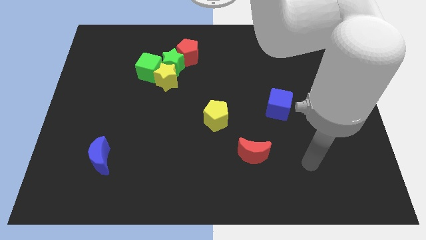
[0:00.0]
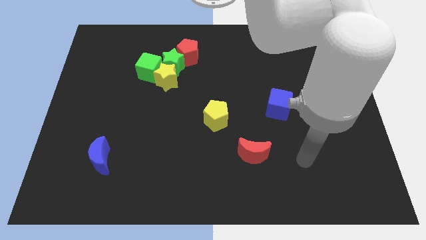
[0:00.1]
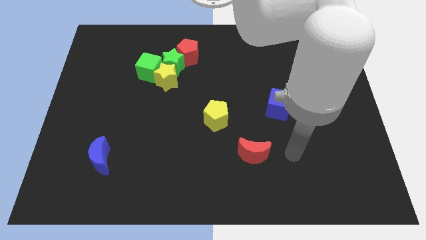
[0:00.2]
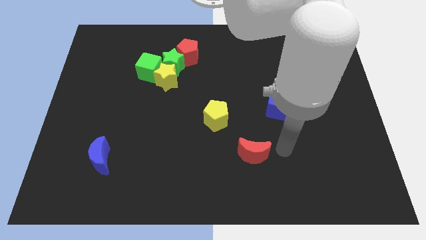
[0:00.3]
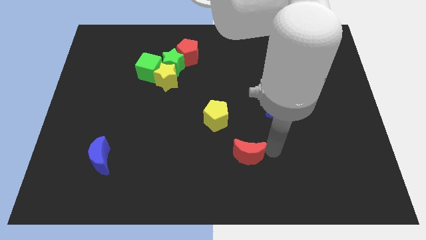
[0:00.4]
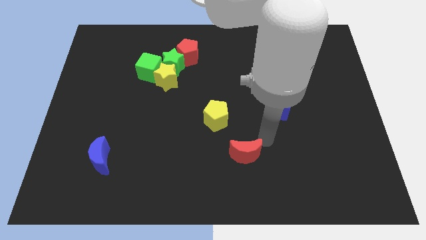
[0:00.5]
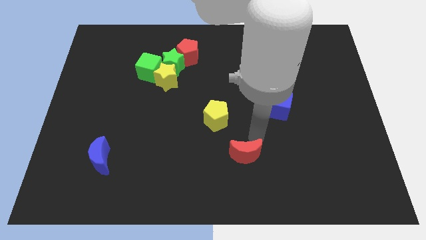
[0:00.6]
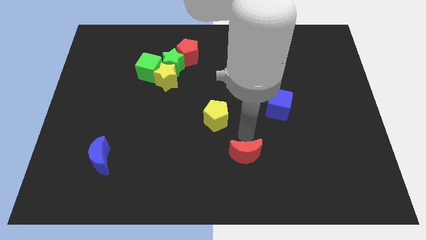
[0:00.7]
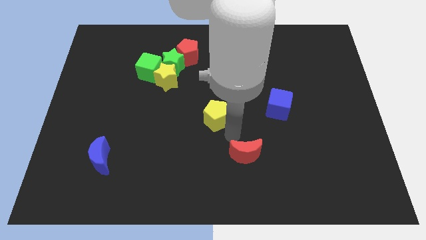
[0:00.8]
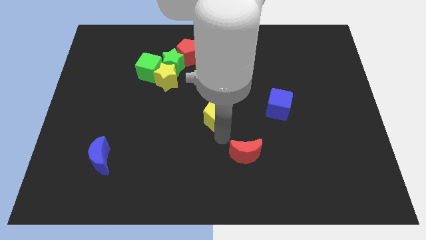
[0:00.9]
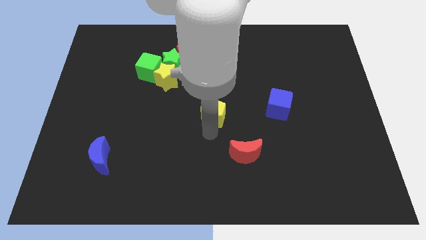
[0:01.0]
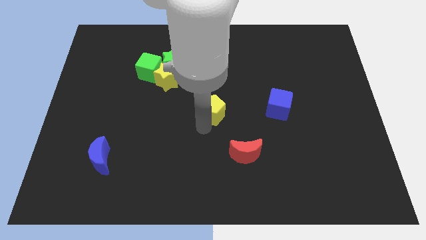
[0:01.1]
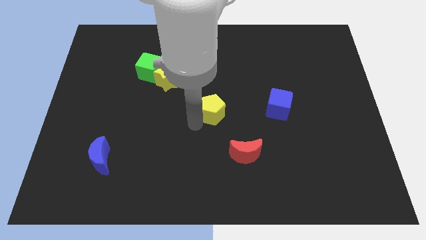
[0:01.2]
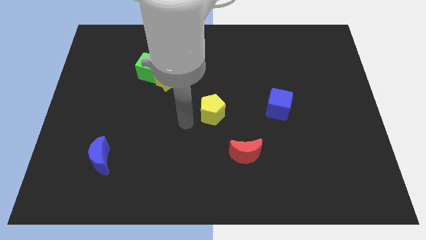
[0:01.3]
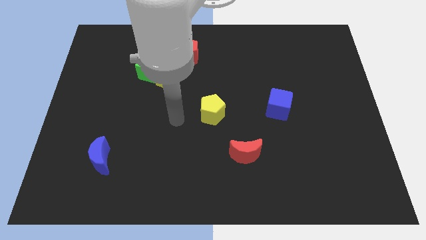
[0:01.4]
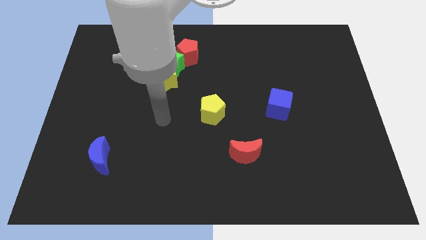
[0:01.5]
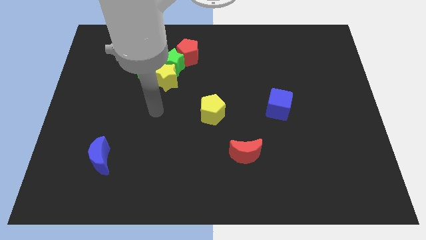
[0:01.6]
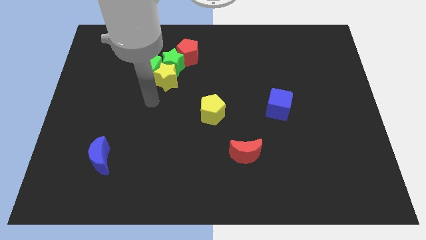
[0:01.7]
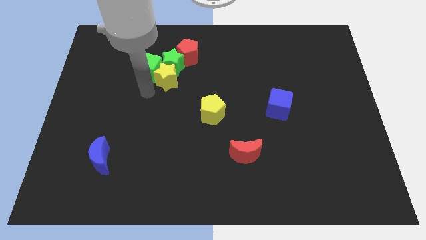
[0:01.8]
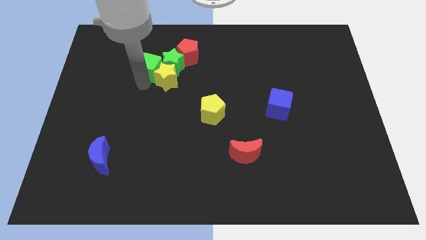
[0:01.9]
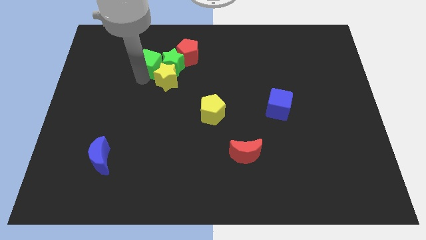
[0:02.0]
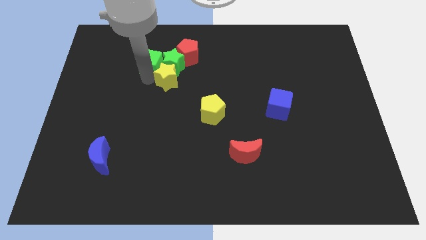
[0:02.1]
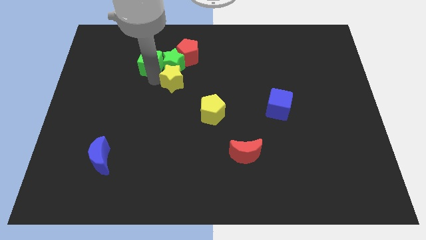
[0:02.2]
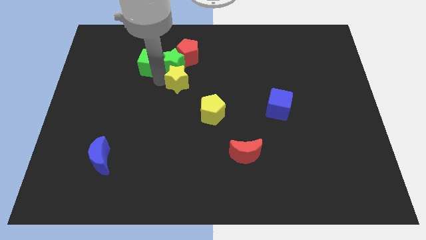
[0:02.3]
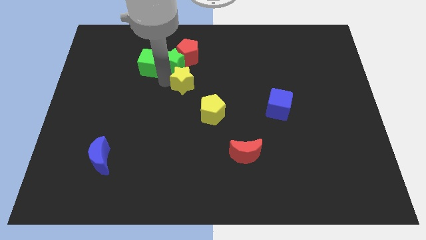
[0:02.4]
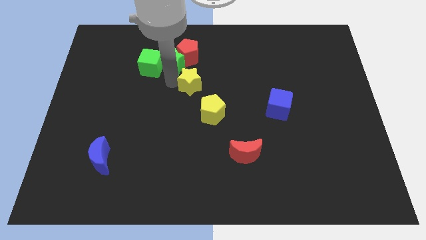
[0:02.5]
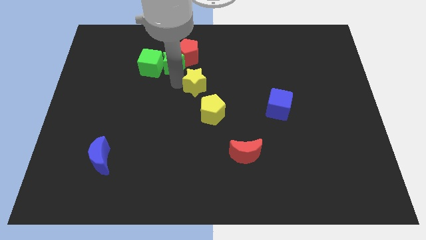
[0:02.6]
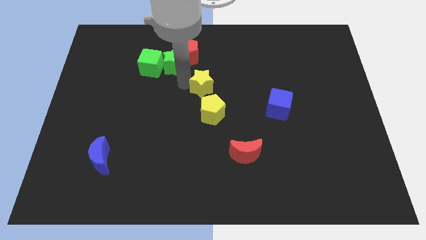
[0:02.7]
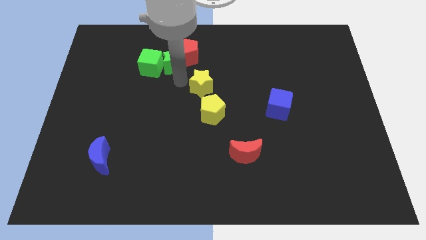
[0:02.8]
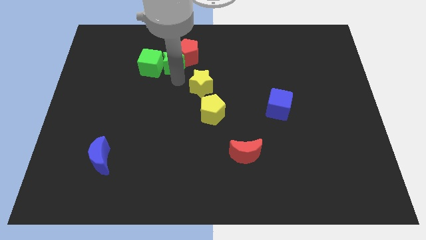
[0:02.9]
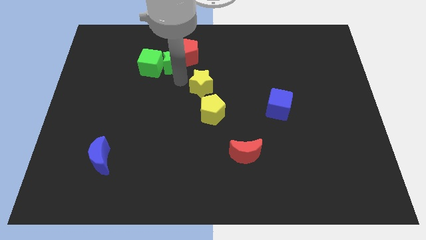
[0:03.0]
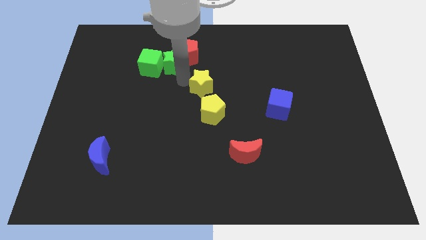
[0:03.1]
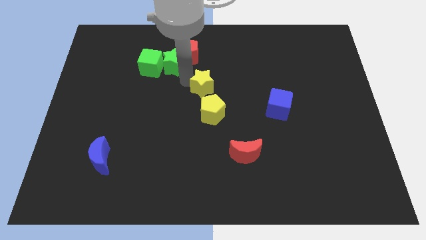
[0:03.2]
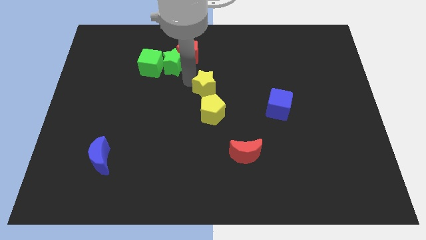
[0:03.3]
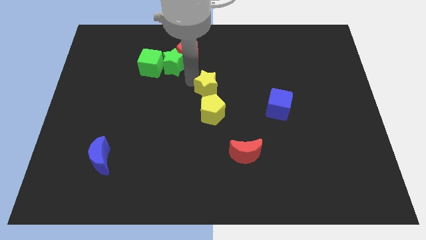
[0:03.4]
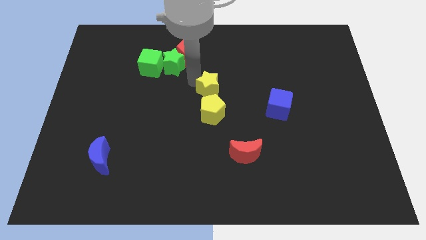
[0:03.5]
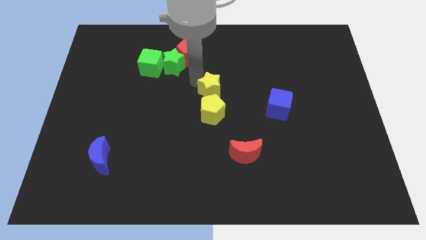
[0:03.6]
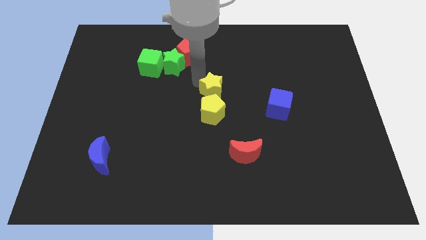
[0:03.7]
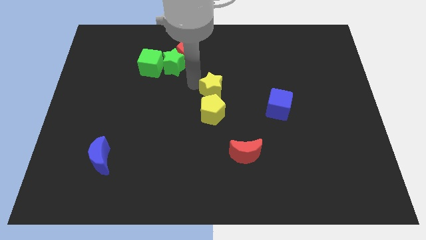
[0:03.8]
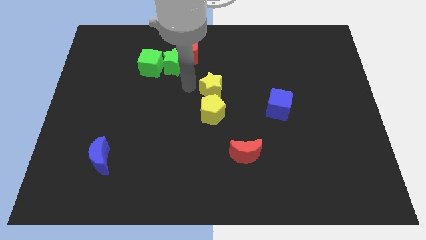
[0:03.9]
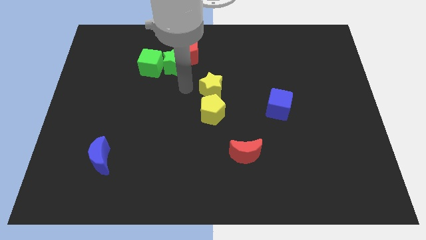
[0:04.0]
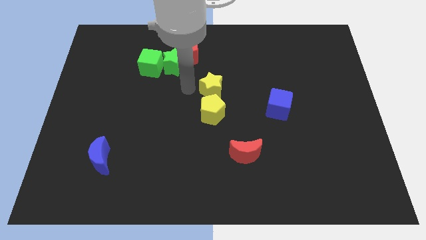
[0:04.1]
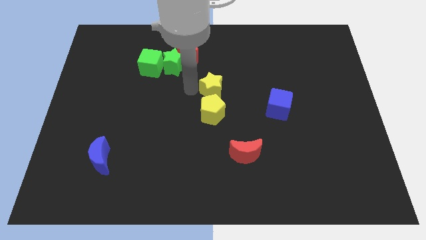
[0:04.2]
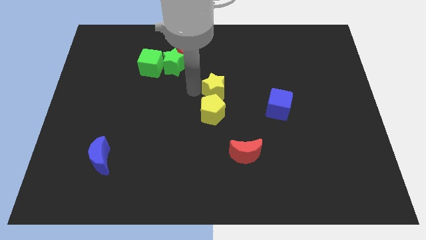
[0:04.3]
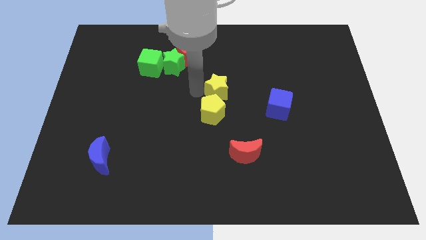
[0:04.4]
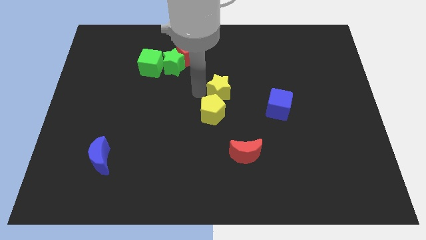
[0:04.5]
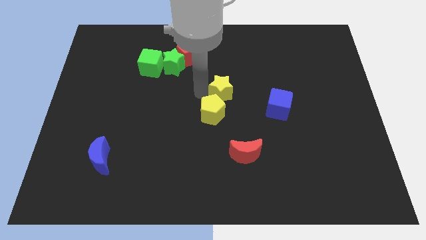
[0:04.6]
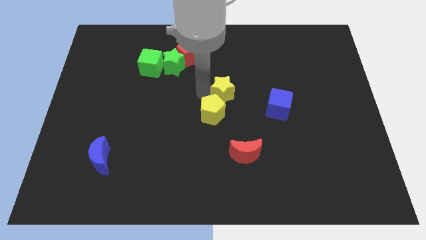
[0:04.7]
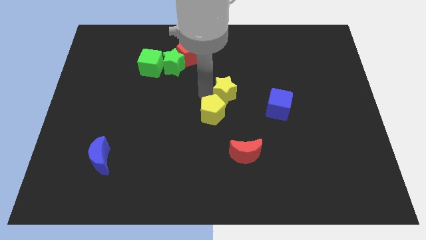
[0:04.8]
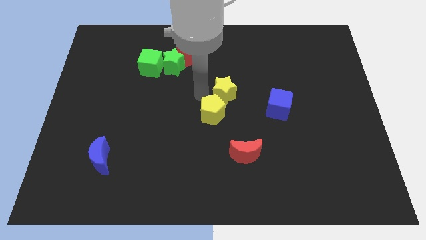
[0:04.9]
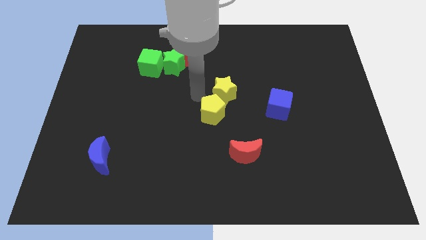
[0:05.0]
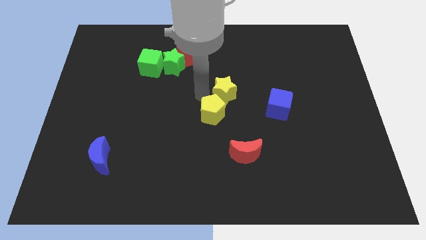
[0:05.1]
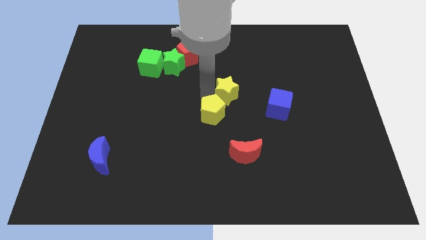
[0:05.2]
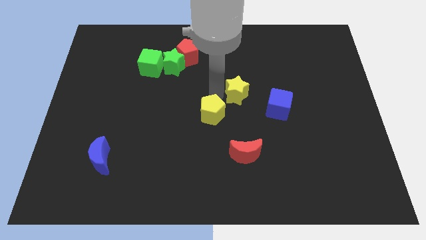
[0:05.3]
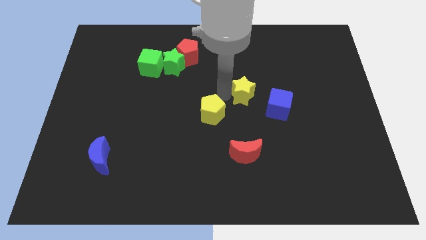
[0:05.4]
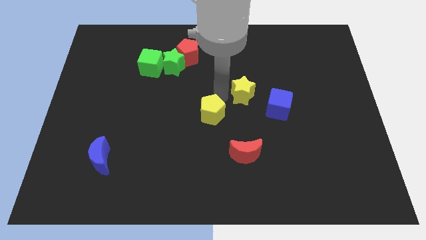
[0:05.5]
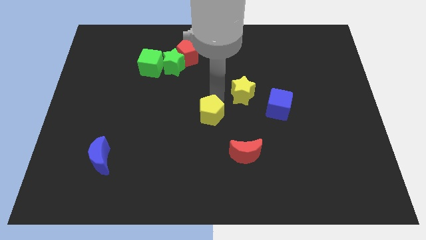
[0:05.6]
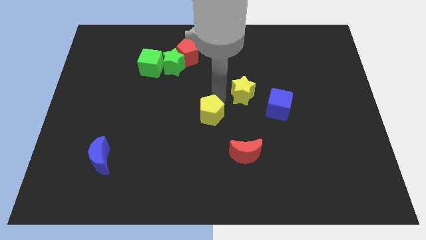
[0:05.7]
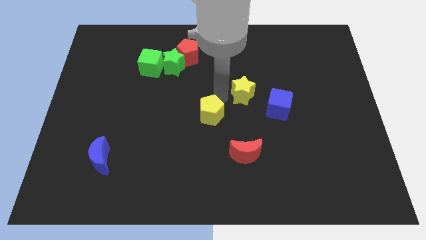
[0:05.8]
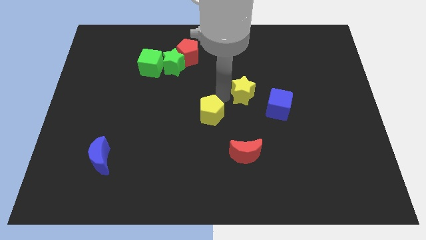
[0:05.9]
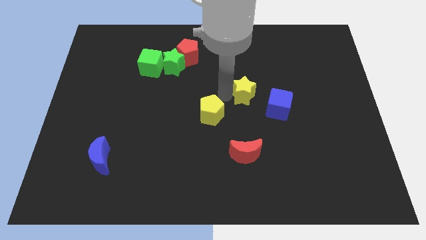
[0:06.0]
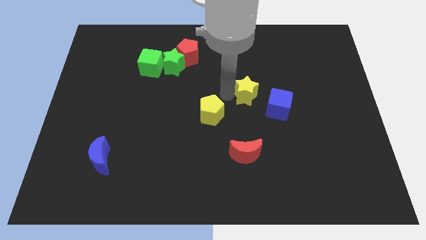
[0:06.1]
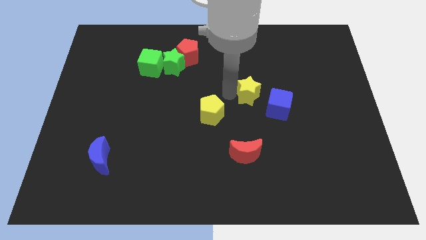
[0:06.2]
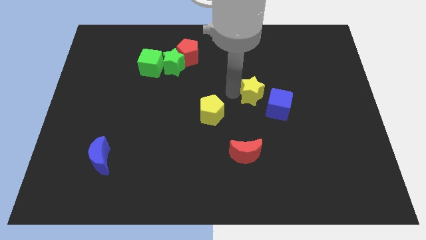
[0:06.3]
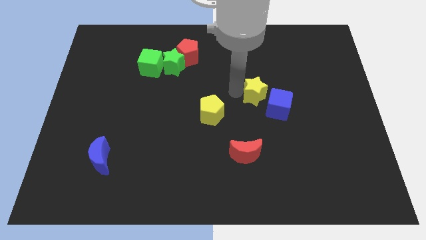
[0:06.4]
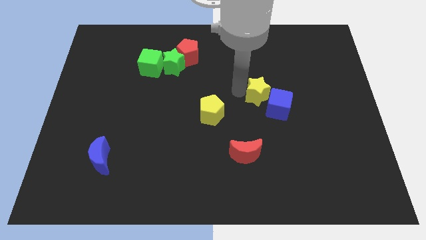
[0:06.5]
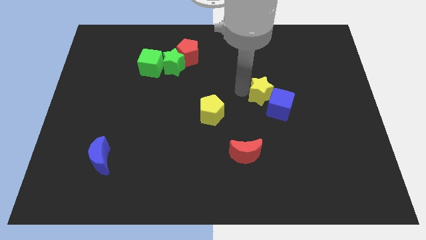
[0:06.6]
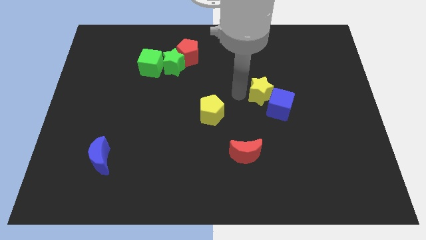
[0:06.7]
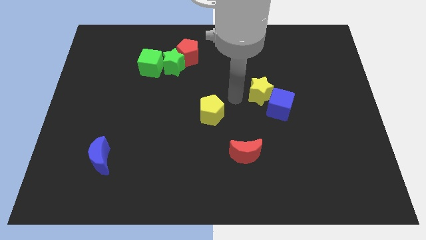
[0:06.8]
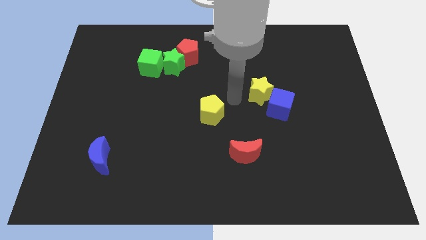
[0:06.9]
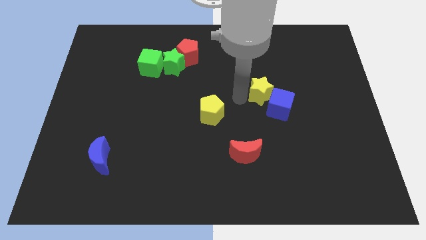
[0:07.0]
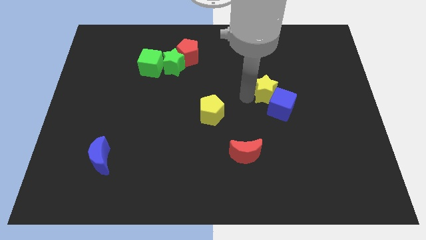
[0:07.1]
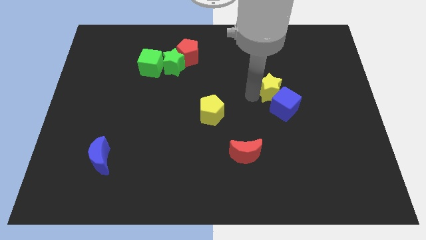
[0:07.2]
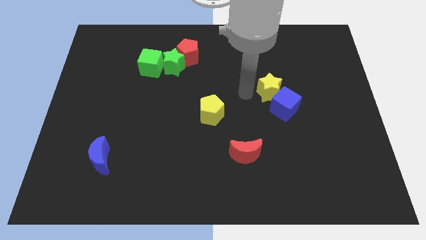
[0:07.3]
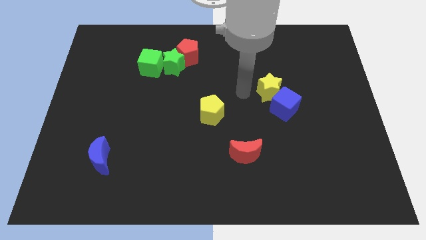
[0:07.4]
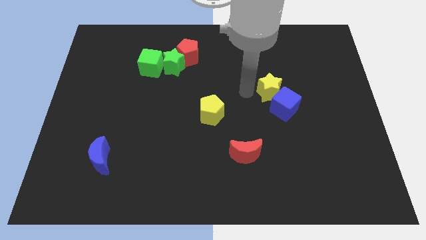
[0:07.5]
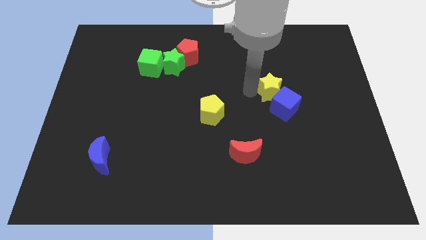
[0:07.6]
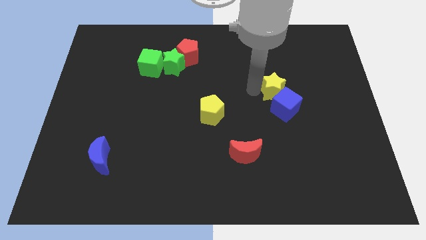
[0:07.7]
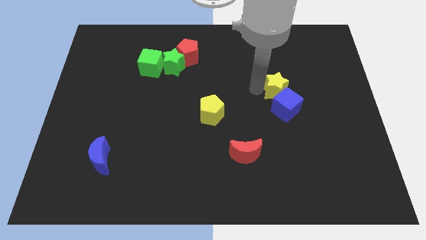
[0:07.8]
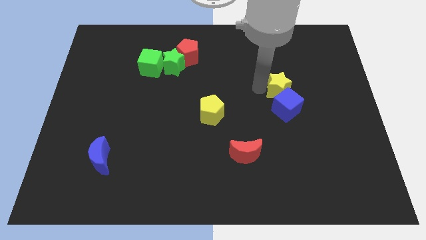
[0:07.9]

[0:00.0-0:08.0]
put the yellow star to the top right of the blue cube
